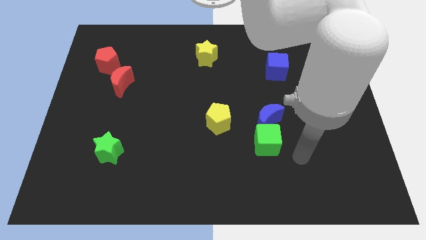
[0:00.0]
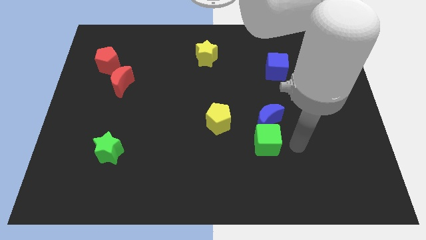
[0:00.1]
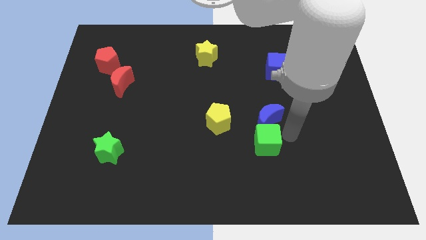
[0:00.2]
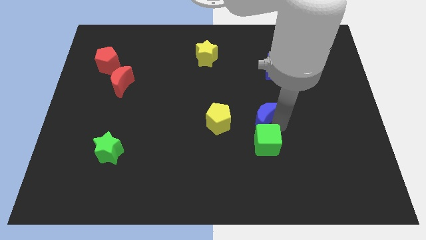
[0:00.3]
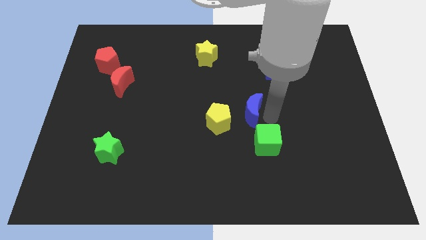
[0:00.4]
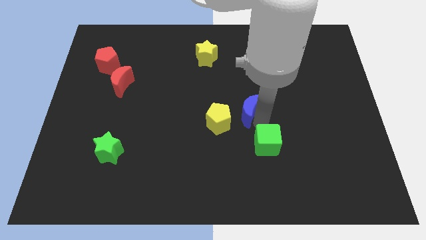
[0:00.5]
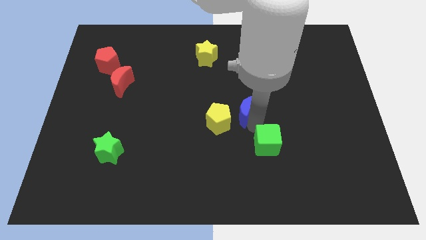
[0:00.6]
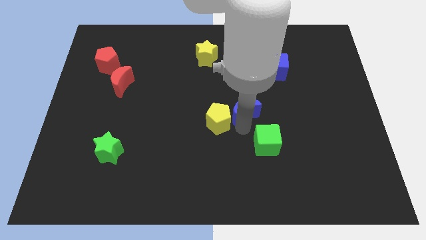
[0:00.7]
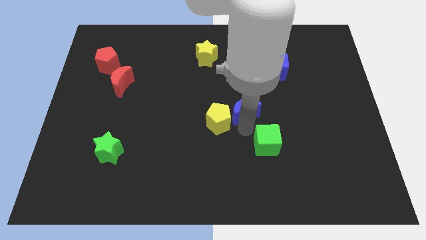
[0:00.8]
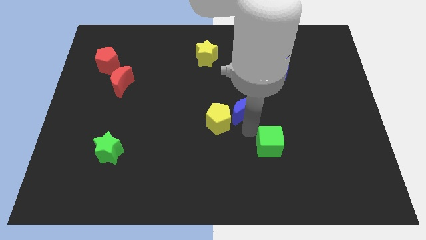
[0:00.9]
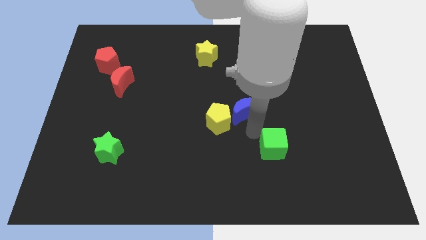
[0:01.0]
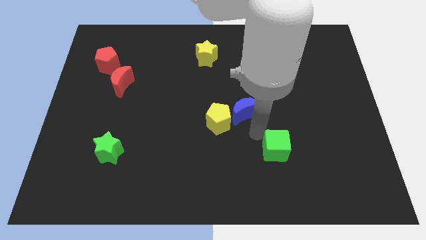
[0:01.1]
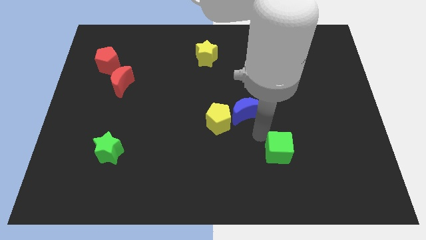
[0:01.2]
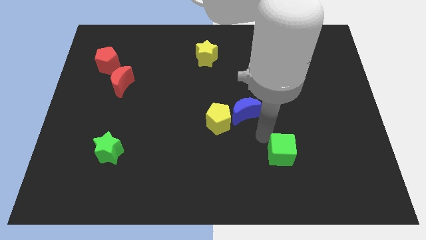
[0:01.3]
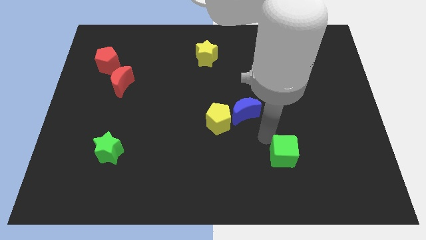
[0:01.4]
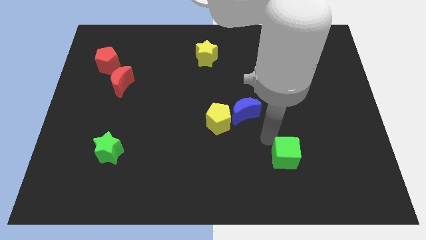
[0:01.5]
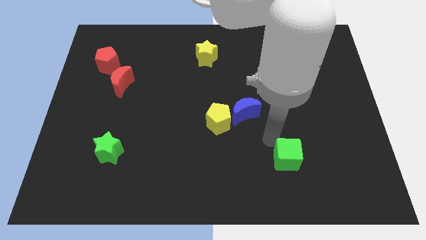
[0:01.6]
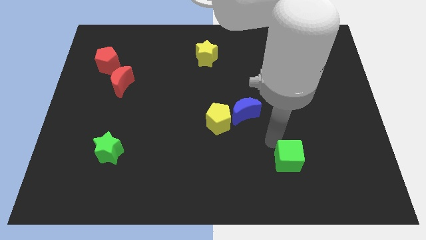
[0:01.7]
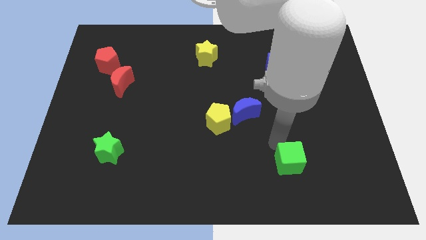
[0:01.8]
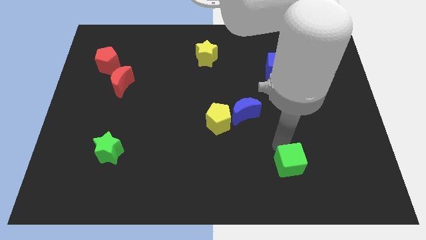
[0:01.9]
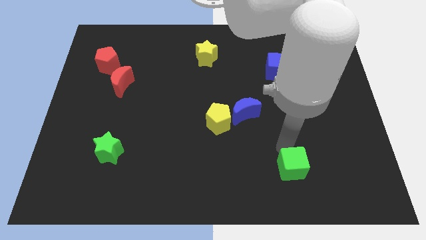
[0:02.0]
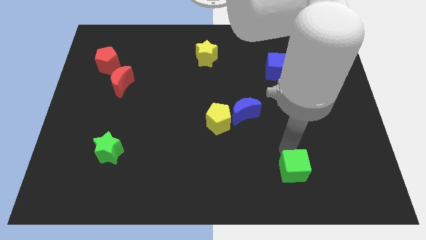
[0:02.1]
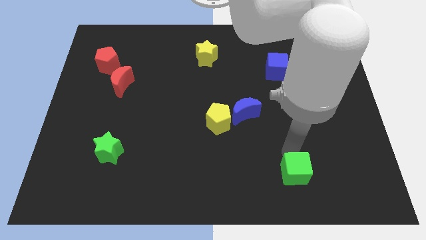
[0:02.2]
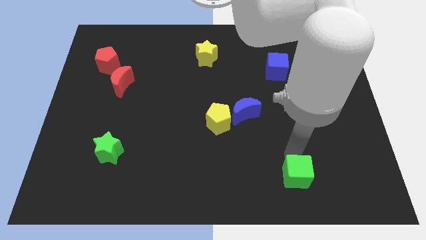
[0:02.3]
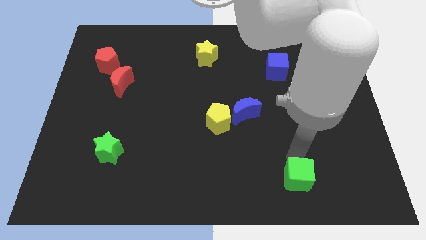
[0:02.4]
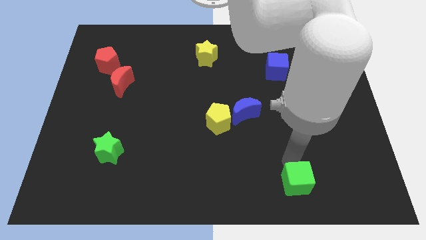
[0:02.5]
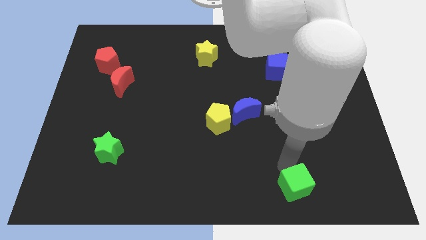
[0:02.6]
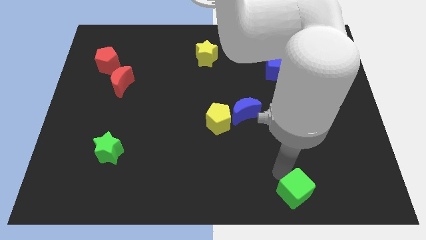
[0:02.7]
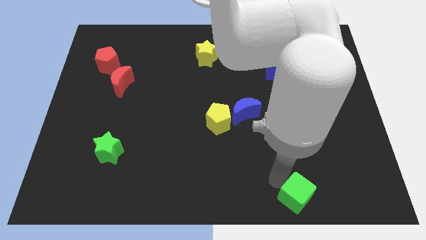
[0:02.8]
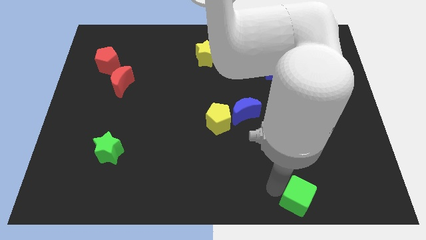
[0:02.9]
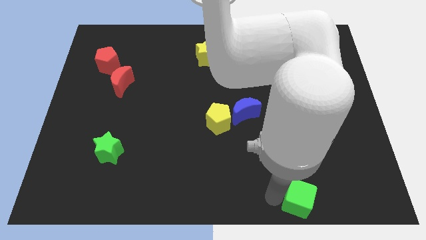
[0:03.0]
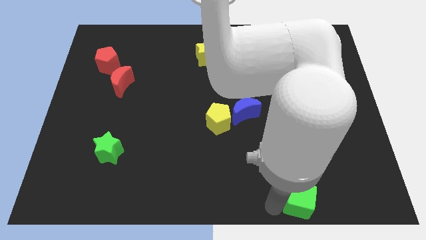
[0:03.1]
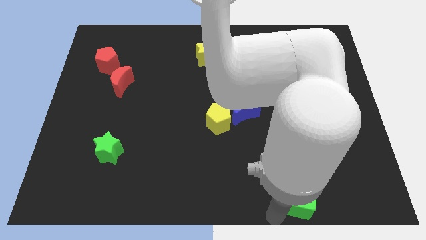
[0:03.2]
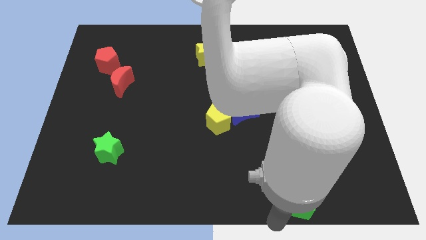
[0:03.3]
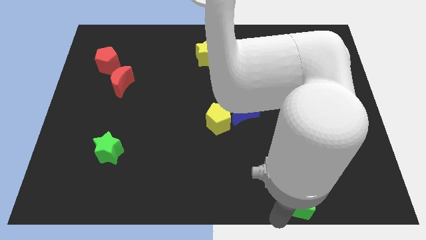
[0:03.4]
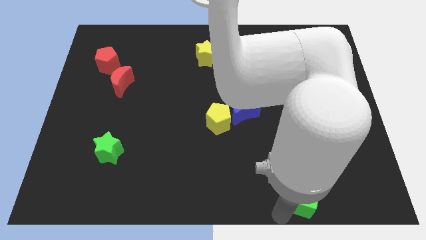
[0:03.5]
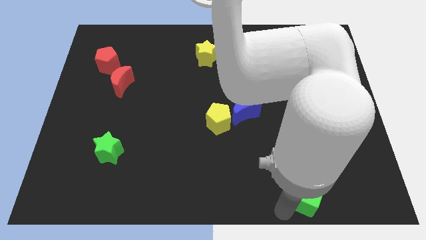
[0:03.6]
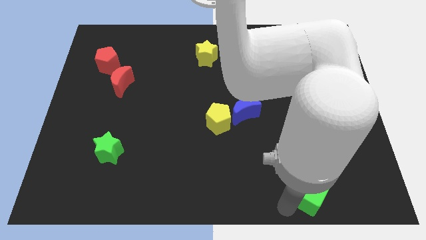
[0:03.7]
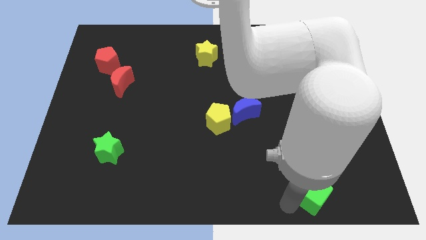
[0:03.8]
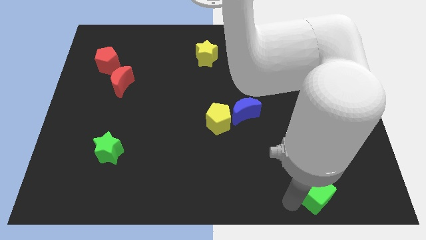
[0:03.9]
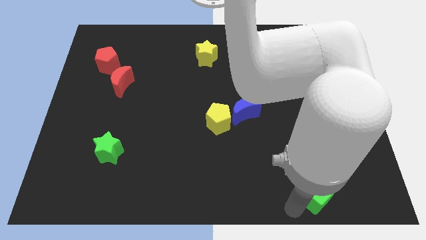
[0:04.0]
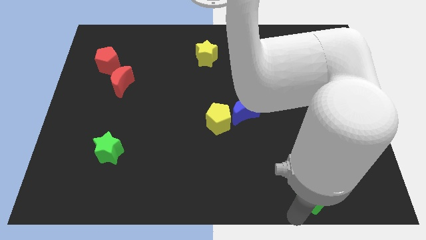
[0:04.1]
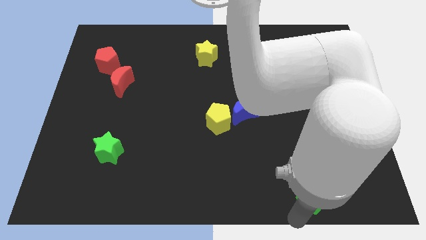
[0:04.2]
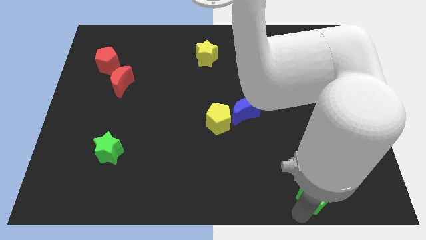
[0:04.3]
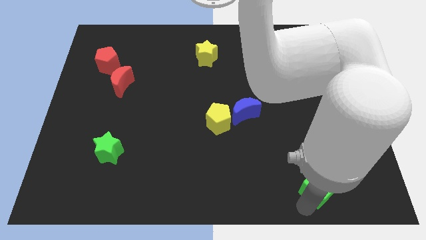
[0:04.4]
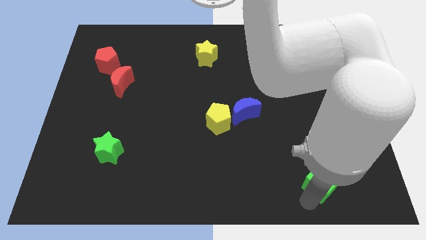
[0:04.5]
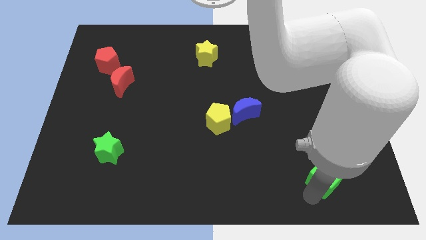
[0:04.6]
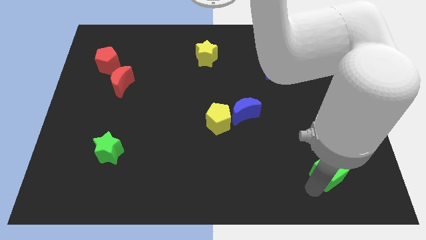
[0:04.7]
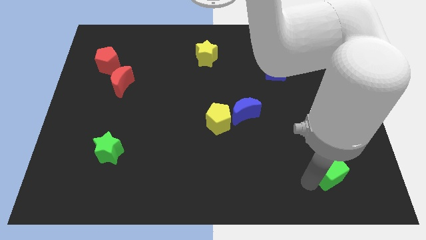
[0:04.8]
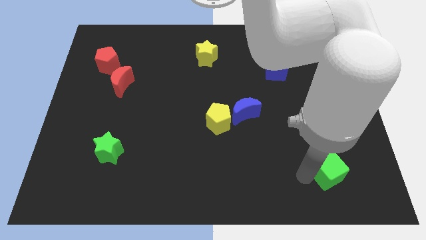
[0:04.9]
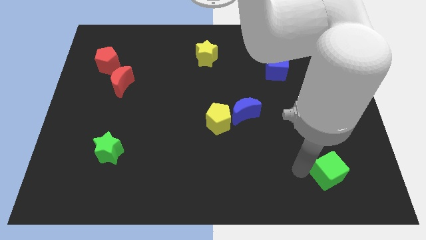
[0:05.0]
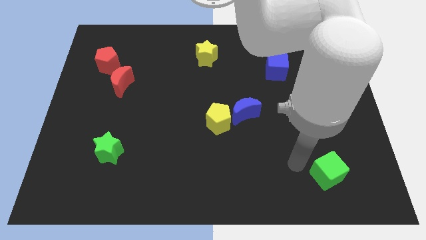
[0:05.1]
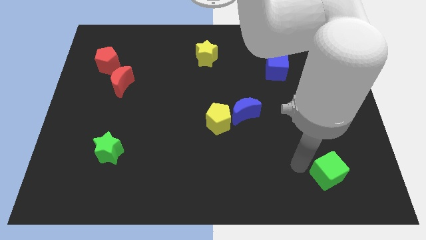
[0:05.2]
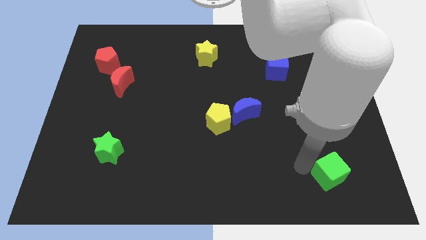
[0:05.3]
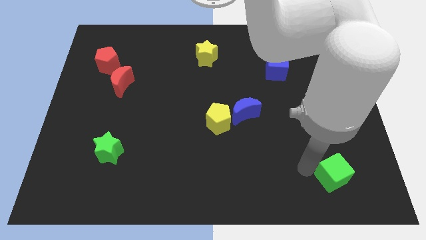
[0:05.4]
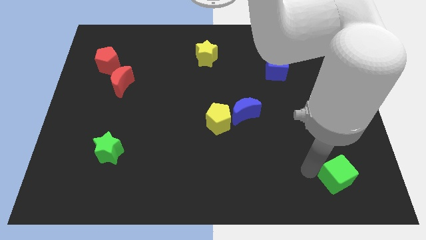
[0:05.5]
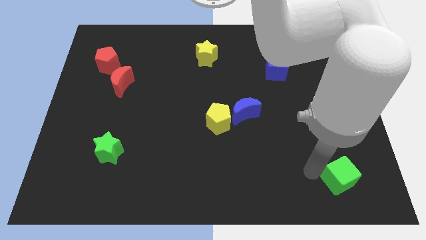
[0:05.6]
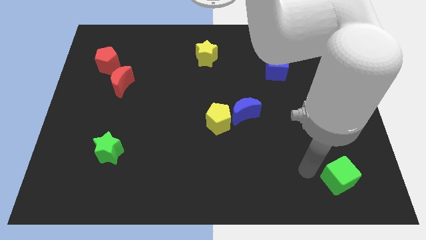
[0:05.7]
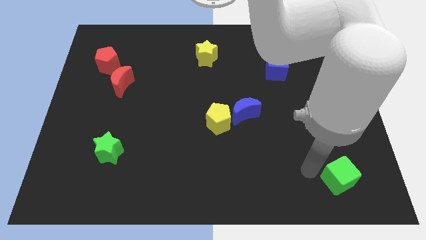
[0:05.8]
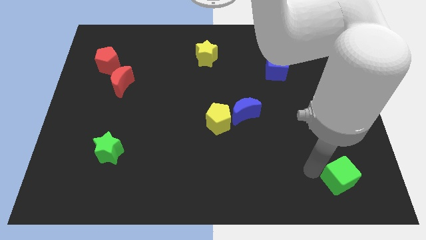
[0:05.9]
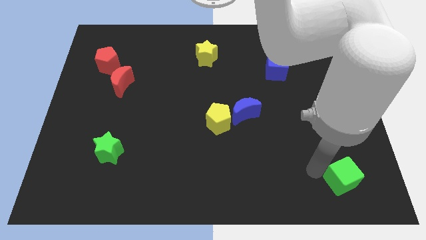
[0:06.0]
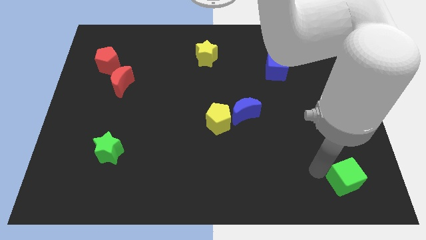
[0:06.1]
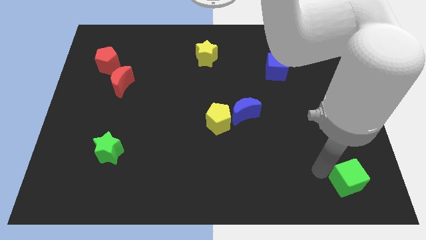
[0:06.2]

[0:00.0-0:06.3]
put the green cube to the bottom right corner
